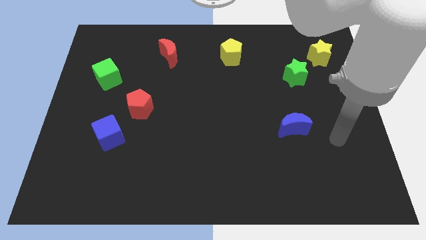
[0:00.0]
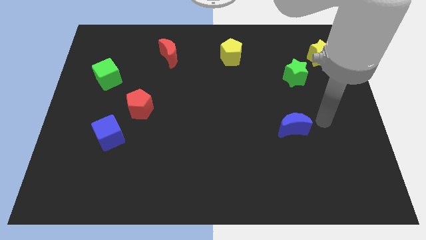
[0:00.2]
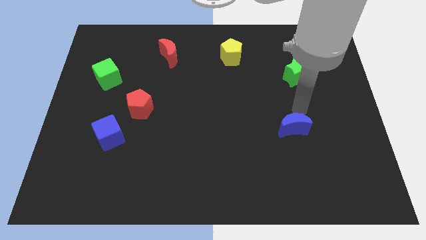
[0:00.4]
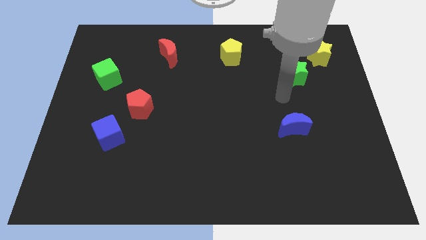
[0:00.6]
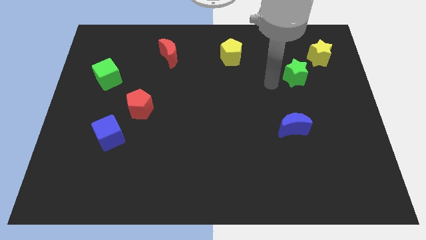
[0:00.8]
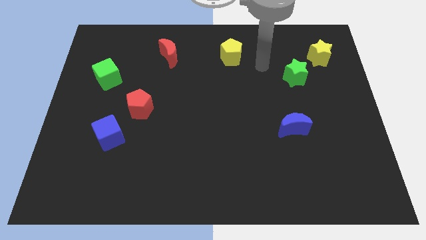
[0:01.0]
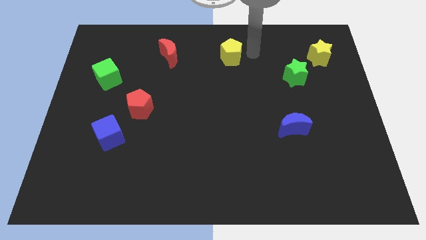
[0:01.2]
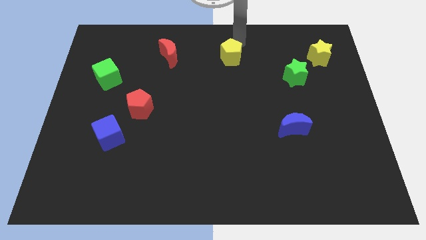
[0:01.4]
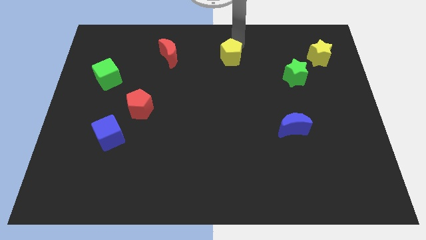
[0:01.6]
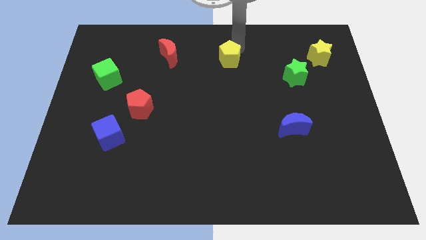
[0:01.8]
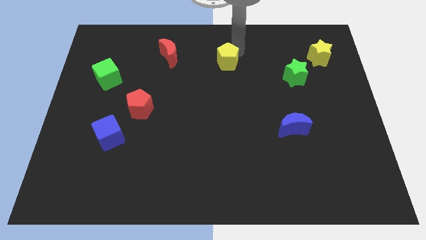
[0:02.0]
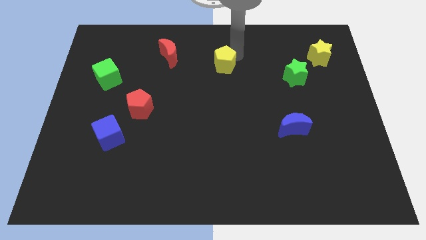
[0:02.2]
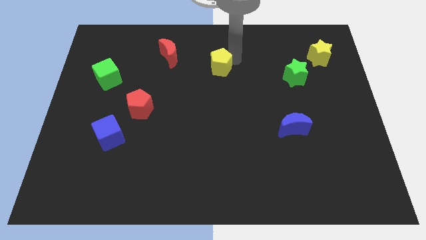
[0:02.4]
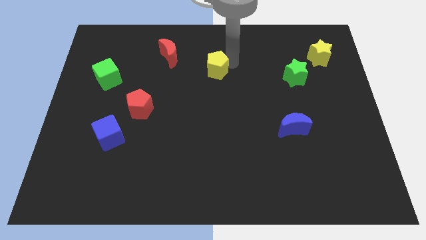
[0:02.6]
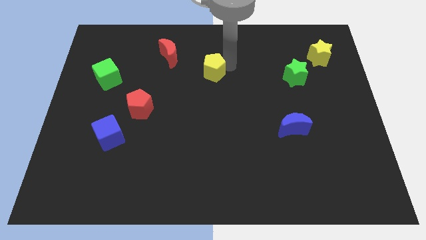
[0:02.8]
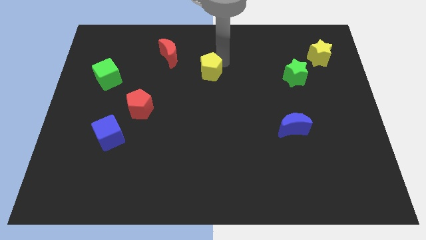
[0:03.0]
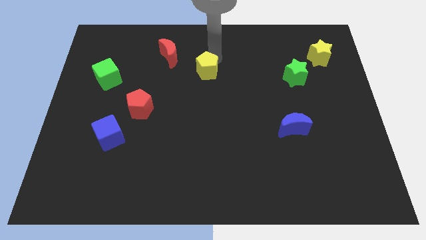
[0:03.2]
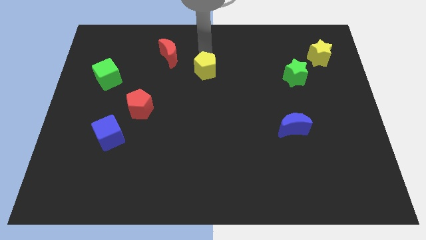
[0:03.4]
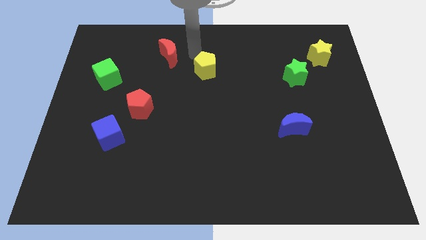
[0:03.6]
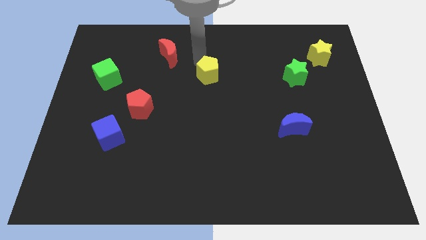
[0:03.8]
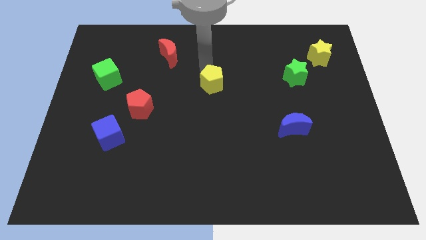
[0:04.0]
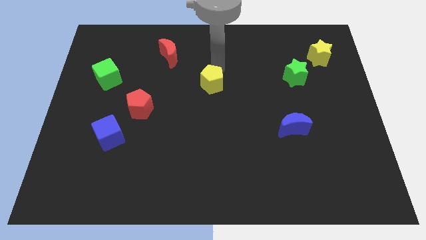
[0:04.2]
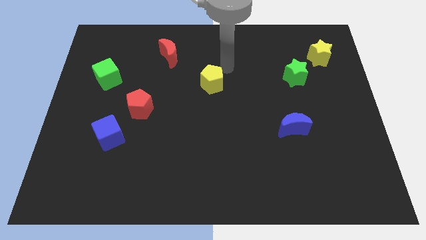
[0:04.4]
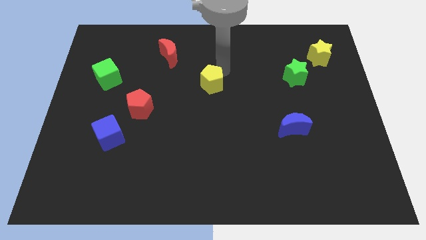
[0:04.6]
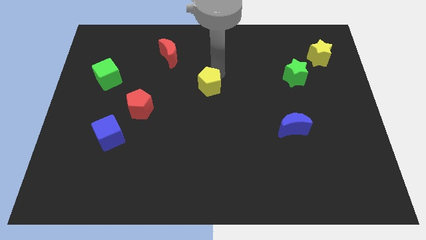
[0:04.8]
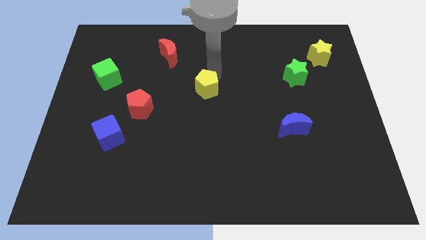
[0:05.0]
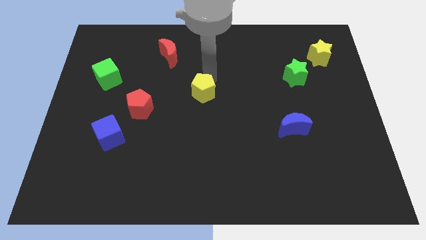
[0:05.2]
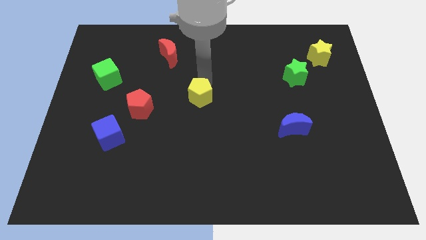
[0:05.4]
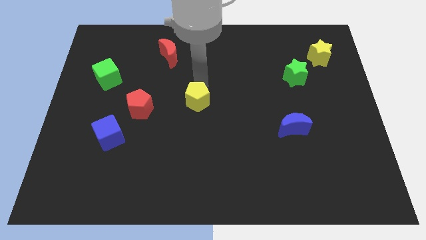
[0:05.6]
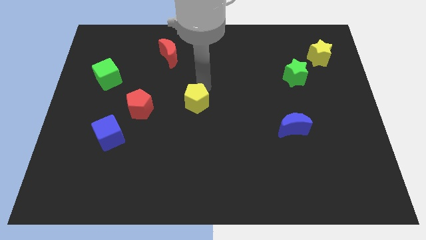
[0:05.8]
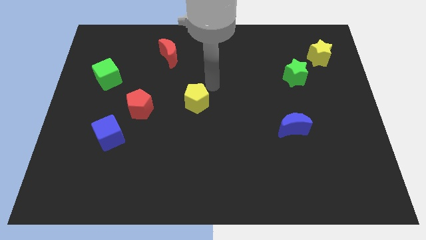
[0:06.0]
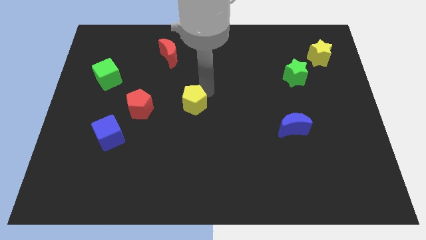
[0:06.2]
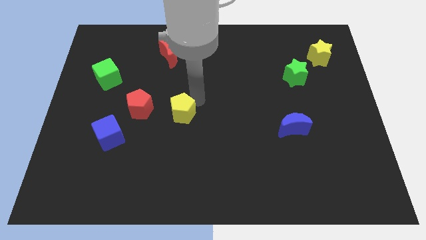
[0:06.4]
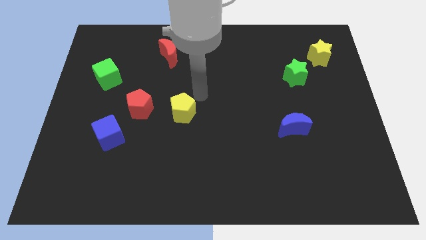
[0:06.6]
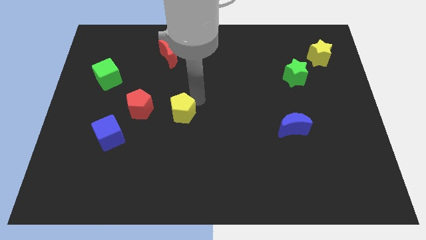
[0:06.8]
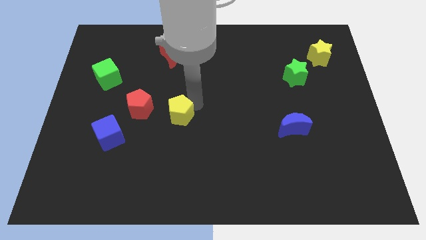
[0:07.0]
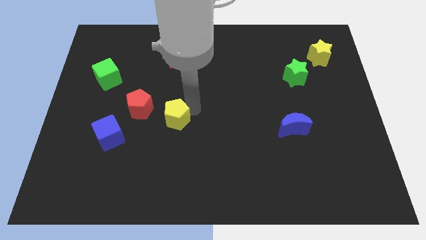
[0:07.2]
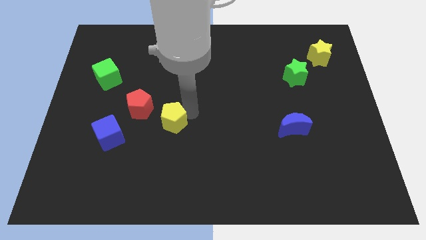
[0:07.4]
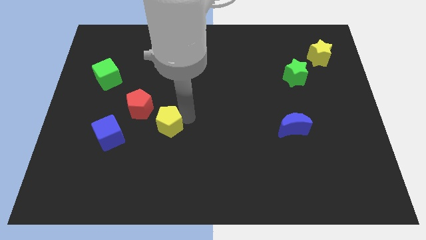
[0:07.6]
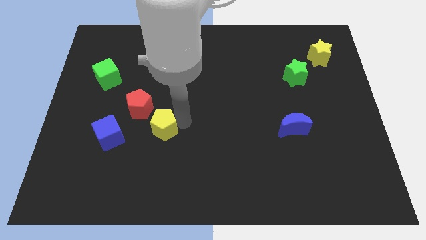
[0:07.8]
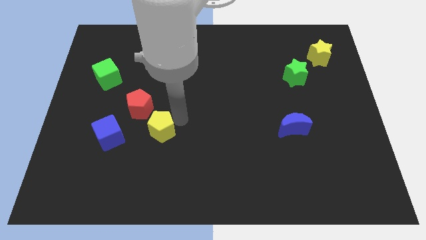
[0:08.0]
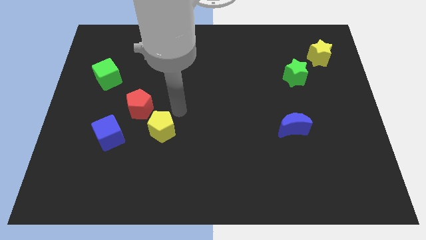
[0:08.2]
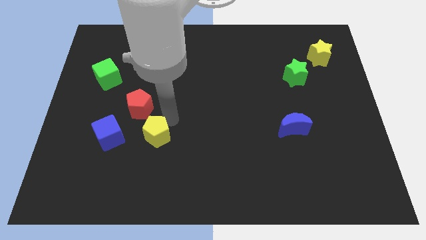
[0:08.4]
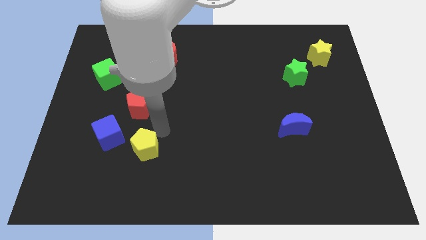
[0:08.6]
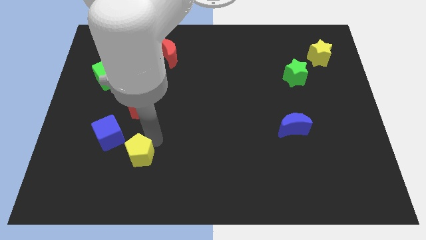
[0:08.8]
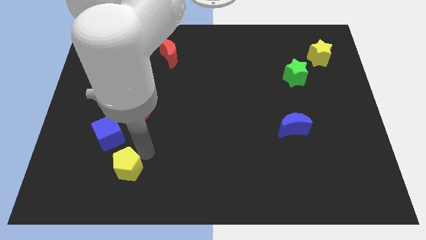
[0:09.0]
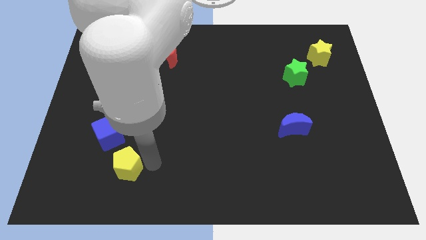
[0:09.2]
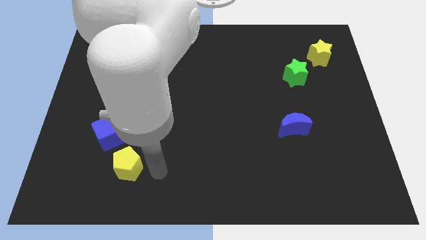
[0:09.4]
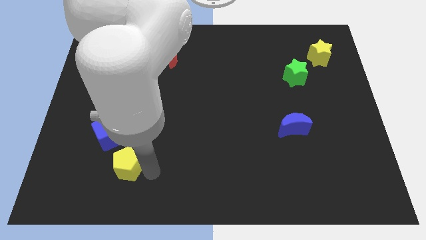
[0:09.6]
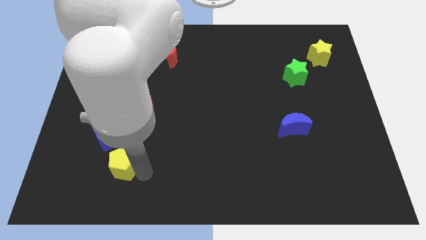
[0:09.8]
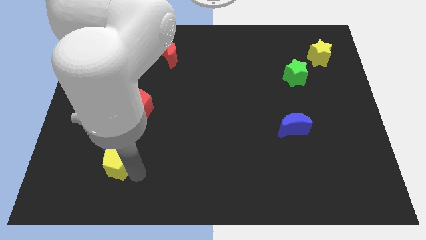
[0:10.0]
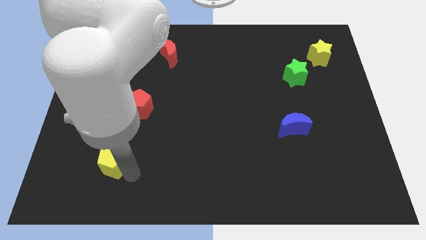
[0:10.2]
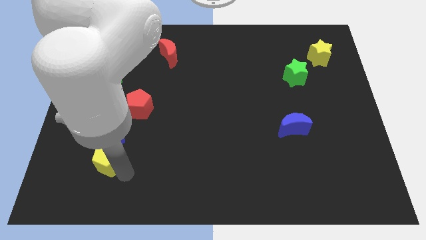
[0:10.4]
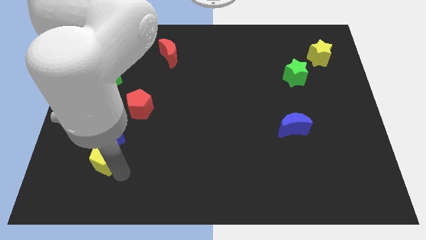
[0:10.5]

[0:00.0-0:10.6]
move the yellow pentagon diagonally down and to the left of the blue cube

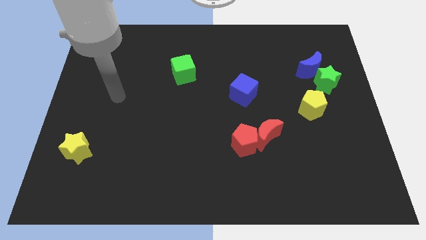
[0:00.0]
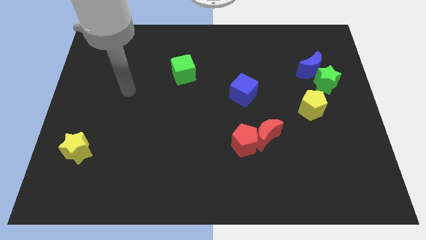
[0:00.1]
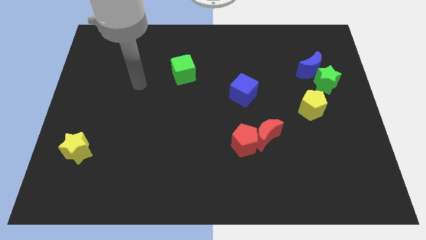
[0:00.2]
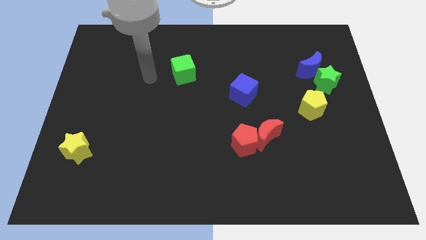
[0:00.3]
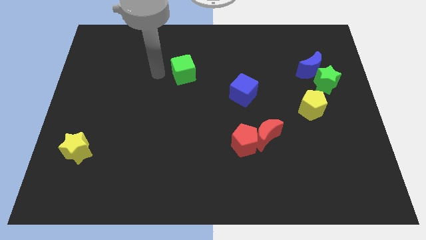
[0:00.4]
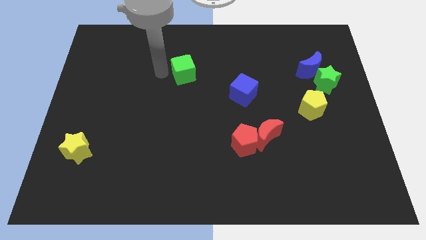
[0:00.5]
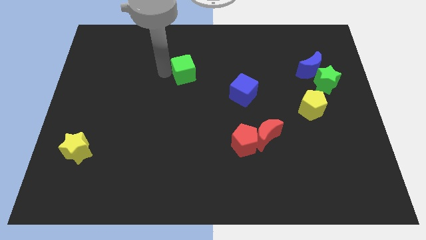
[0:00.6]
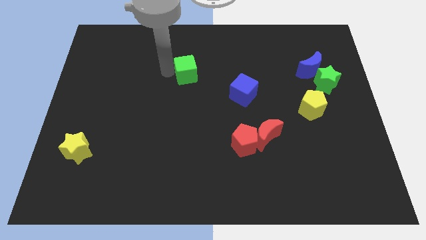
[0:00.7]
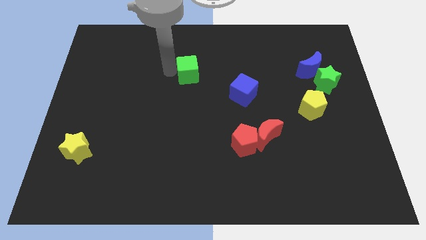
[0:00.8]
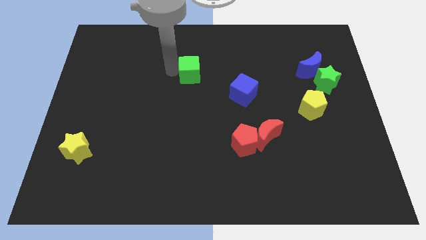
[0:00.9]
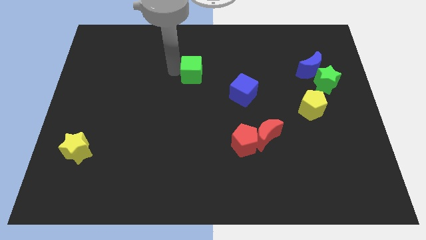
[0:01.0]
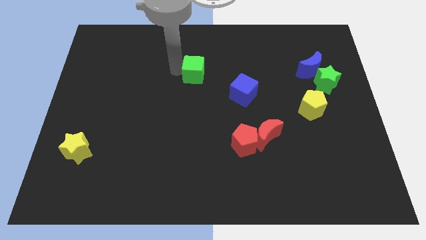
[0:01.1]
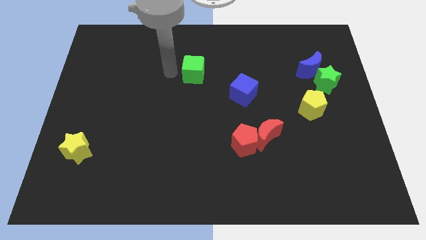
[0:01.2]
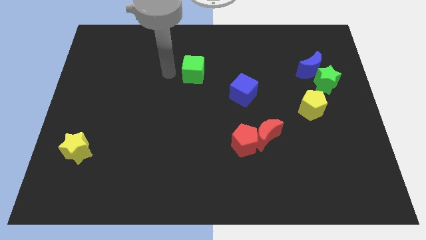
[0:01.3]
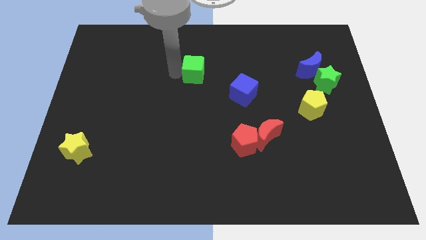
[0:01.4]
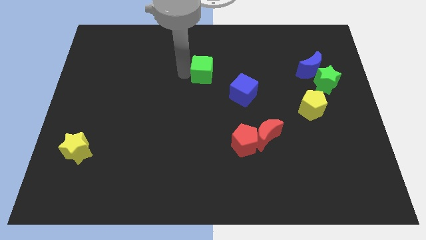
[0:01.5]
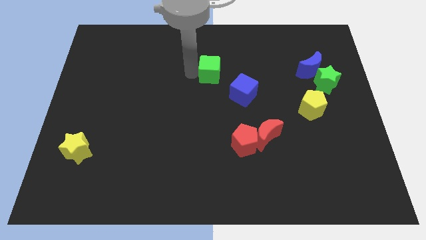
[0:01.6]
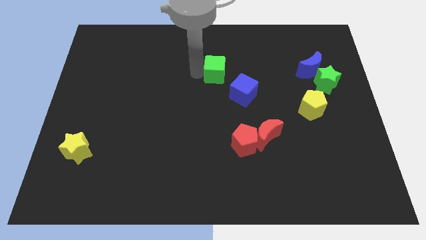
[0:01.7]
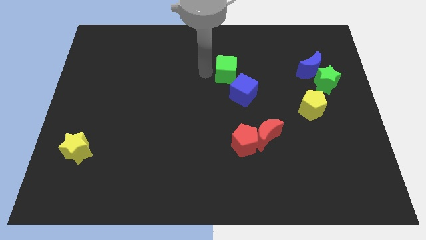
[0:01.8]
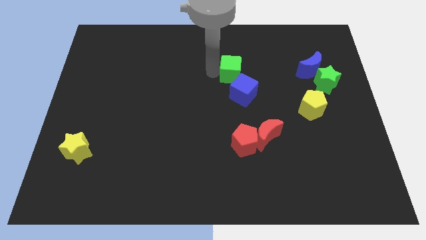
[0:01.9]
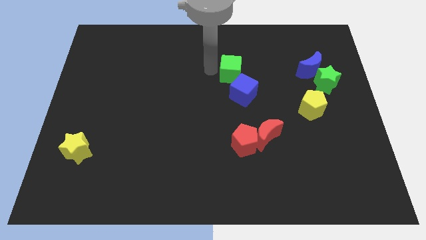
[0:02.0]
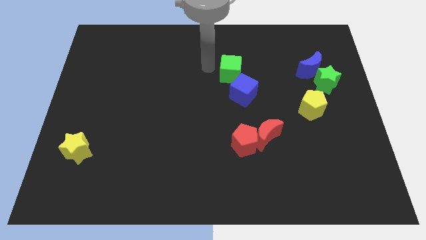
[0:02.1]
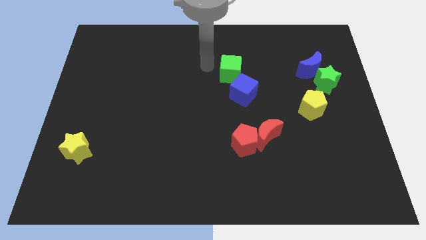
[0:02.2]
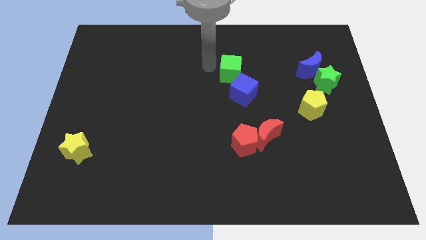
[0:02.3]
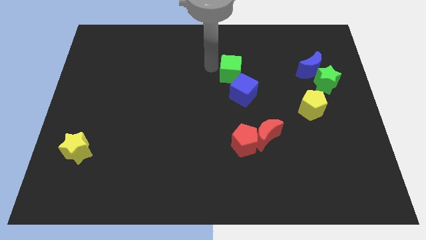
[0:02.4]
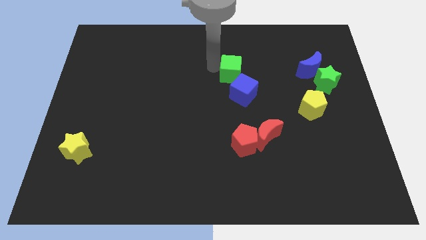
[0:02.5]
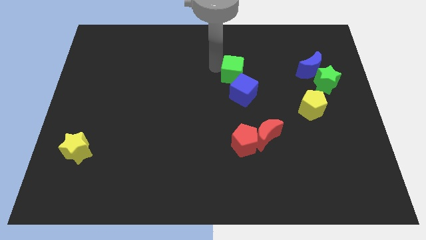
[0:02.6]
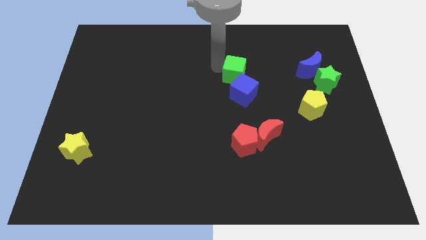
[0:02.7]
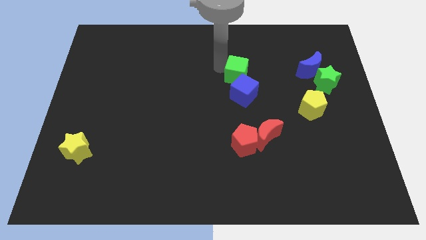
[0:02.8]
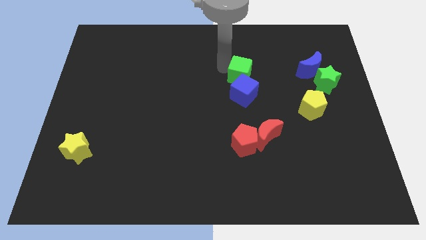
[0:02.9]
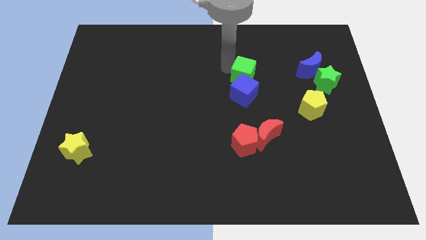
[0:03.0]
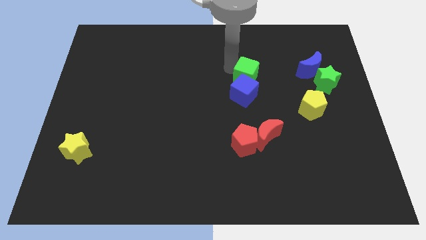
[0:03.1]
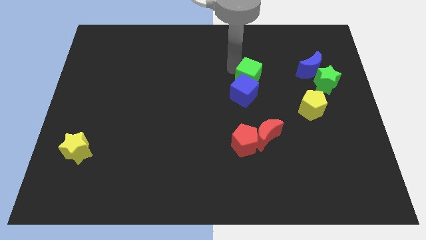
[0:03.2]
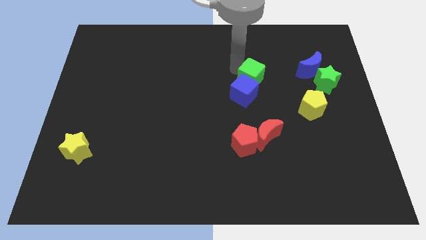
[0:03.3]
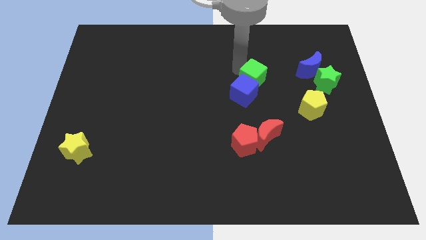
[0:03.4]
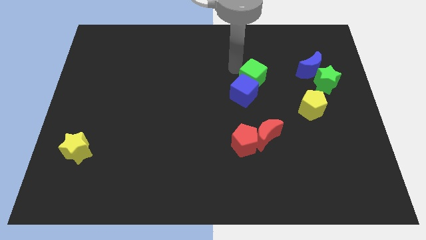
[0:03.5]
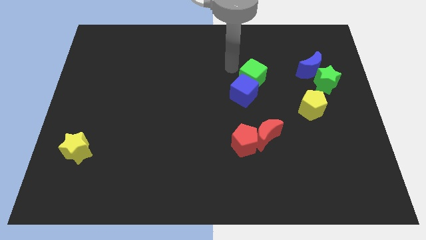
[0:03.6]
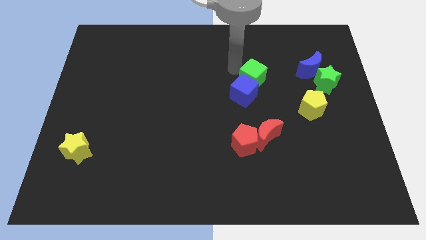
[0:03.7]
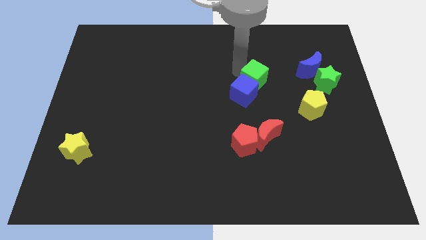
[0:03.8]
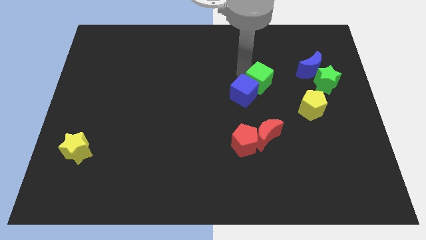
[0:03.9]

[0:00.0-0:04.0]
slide the green cube to the right of the blue cube
